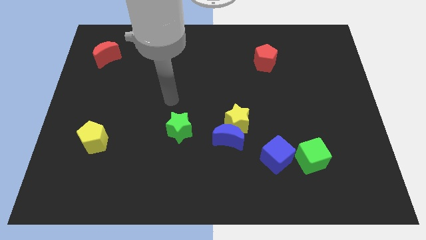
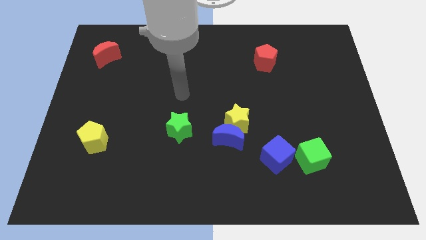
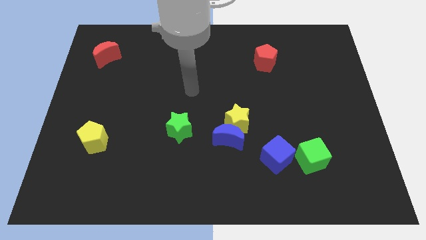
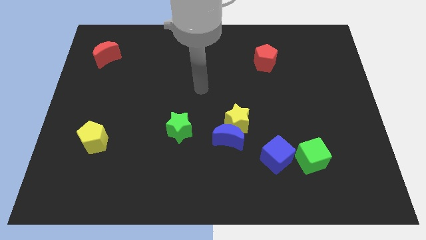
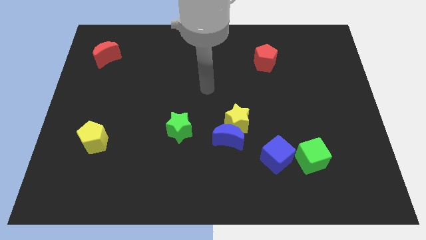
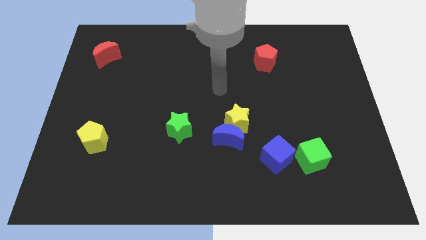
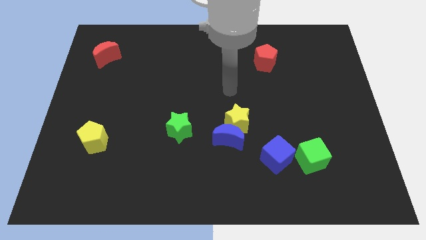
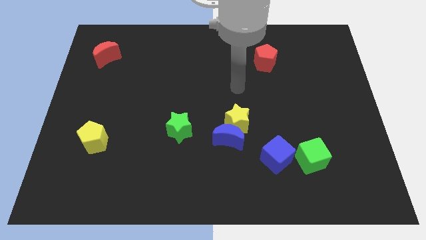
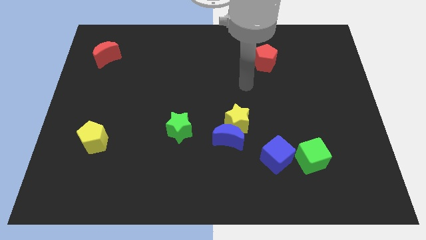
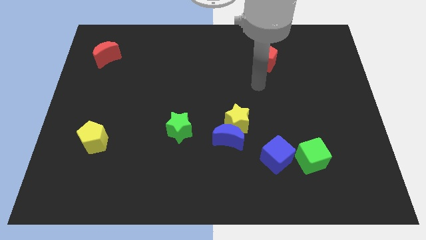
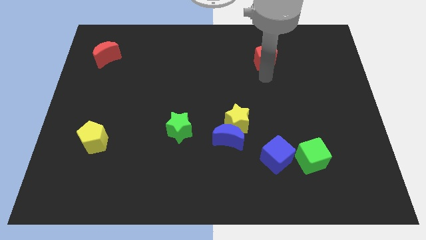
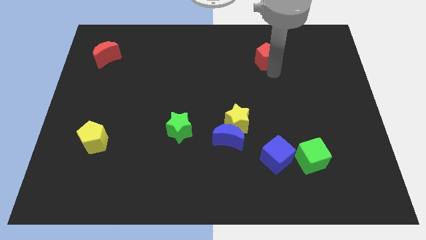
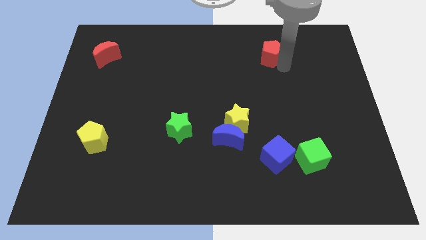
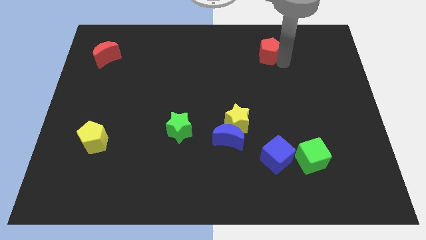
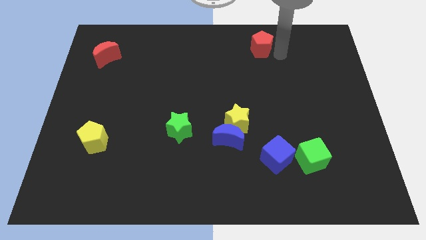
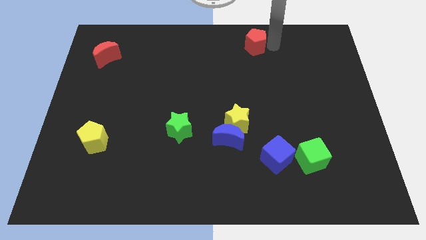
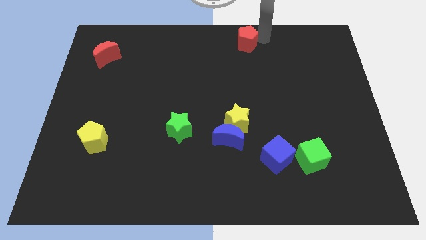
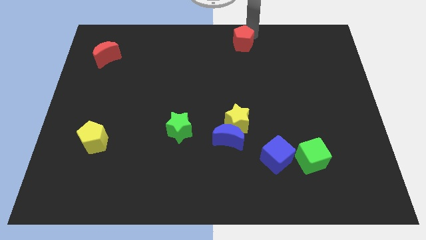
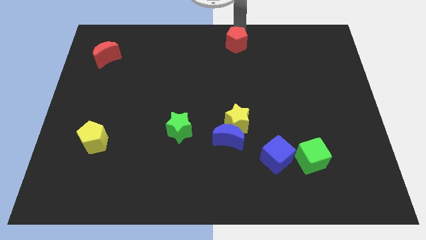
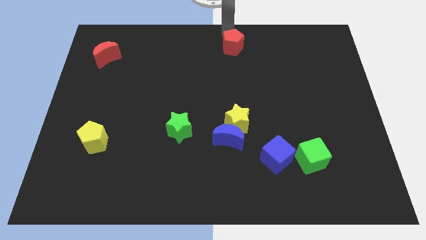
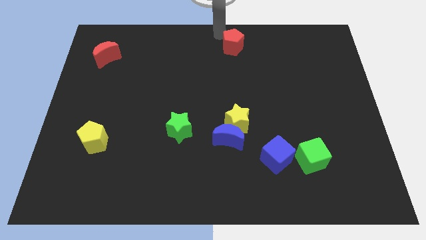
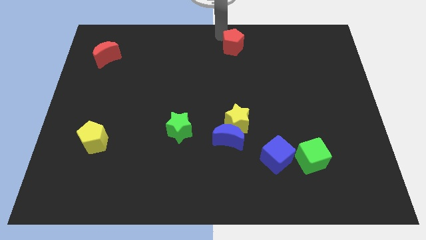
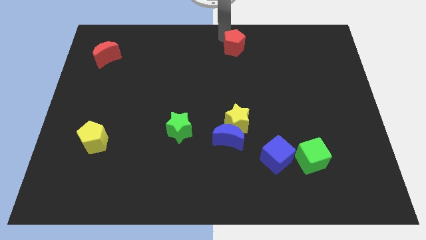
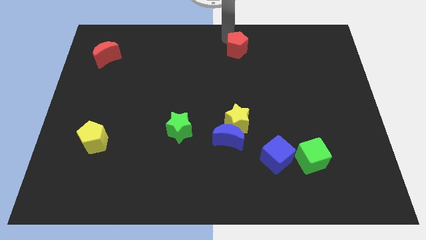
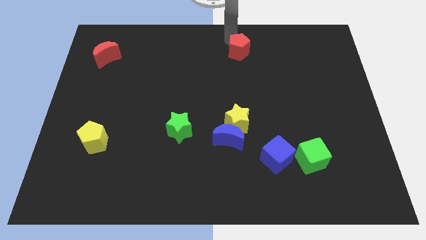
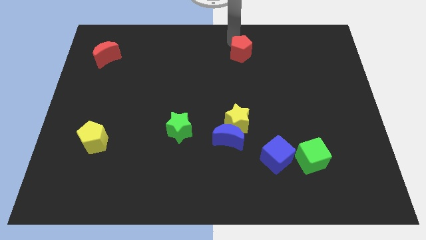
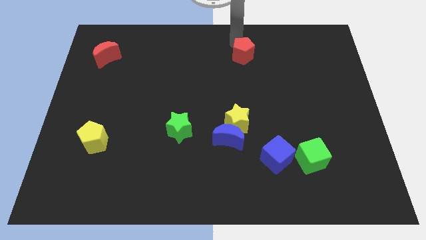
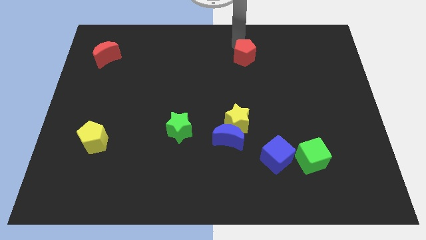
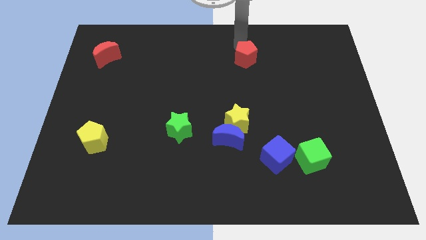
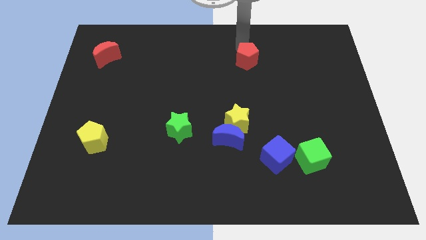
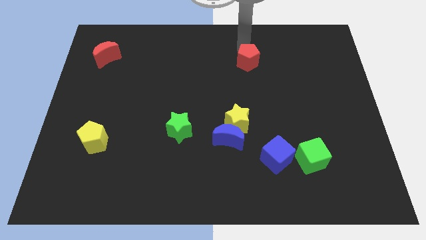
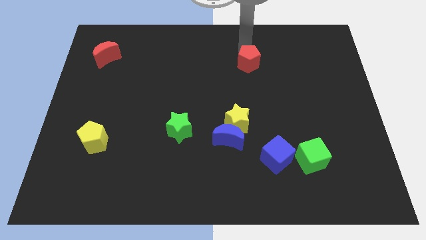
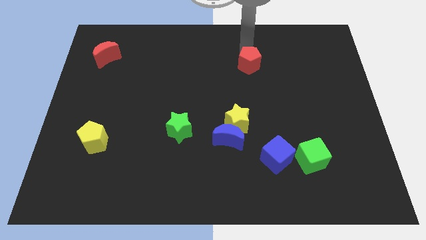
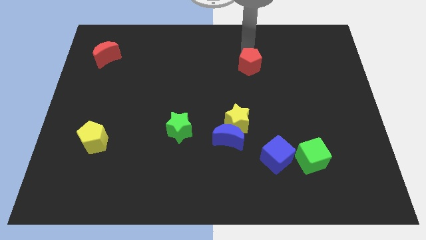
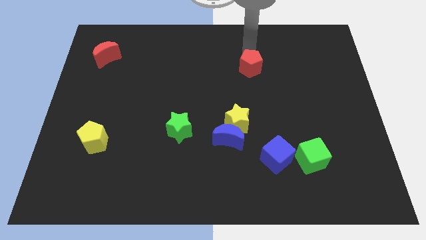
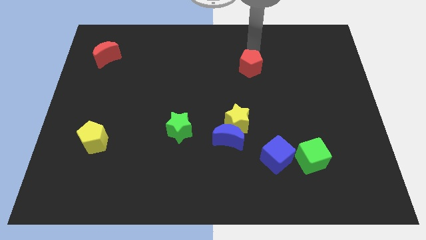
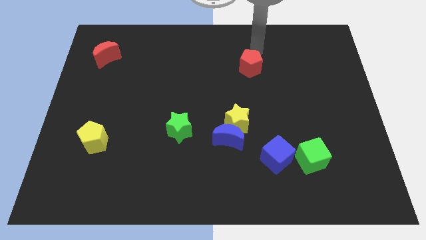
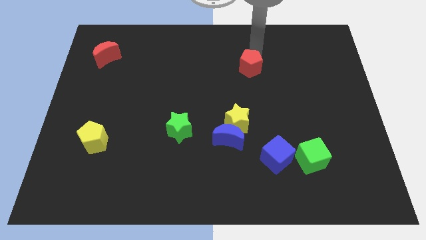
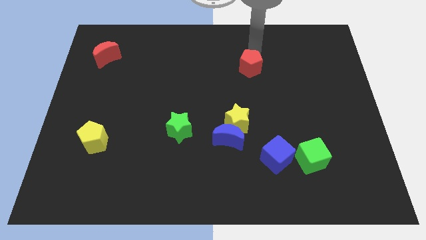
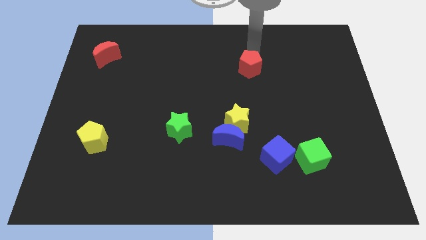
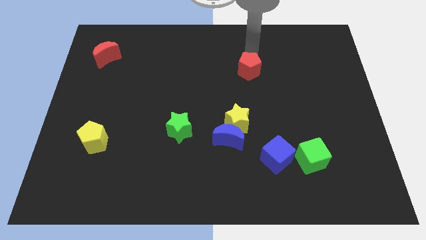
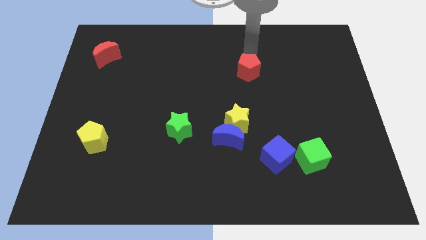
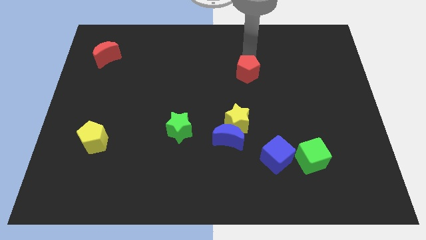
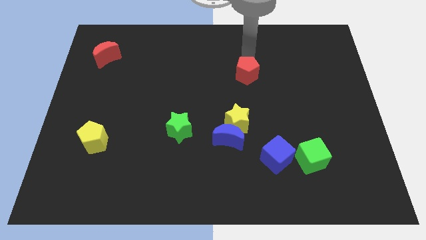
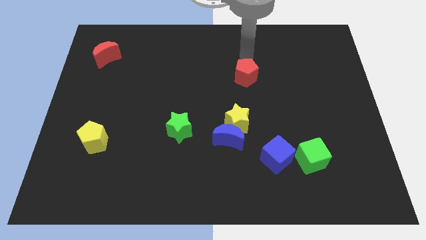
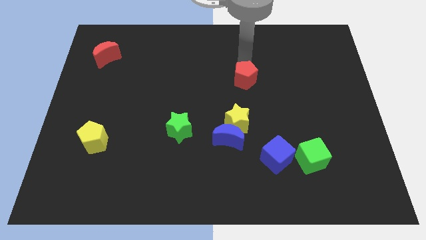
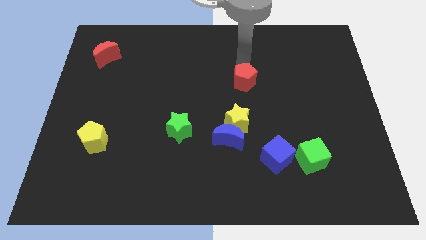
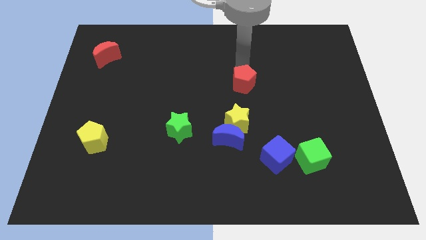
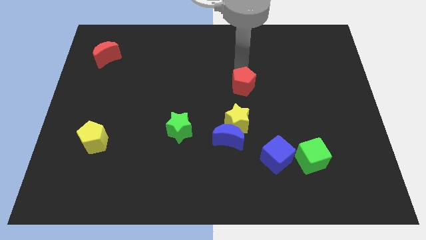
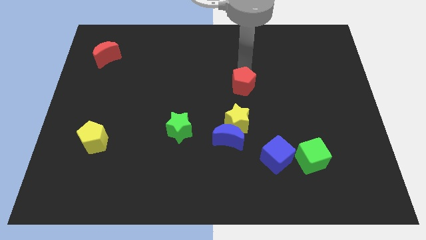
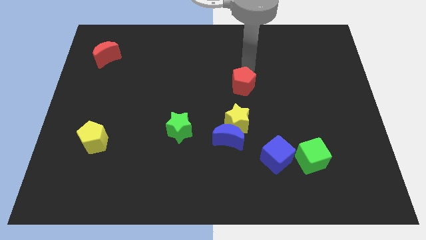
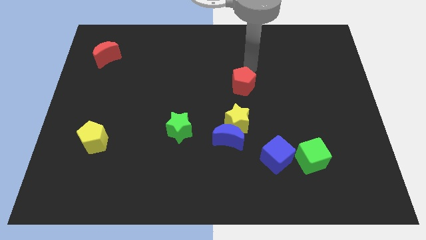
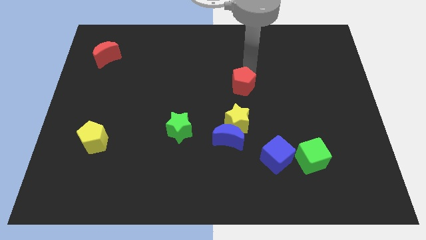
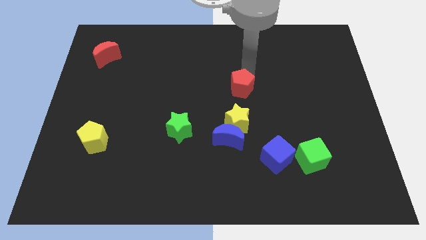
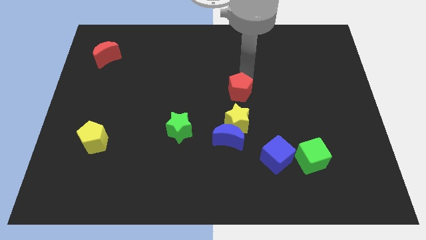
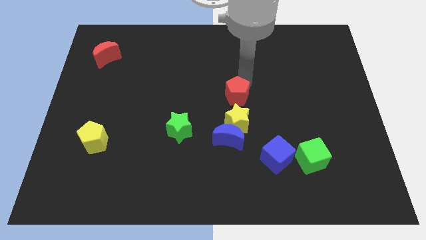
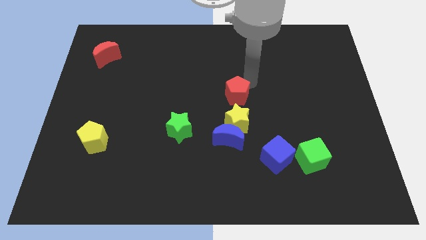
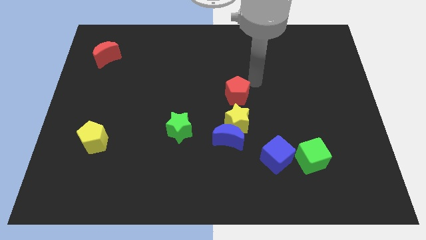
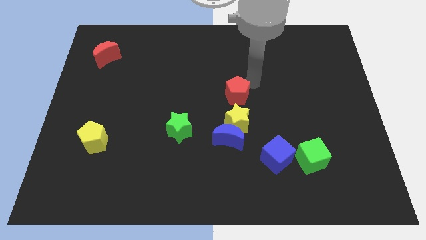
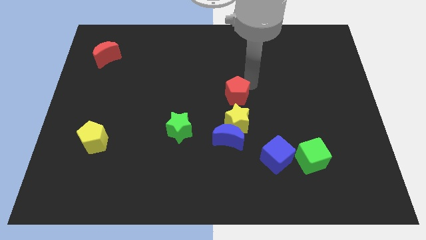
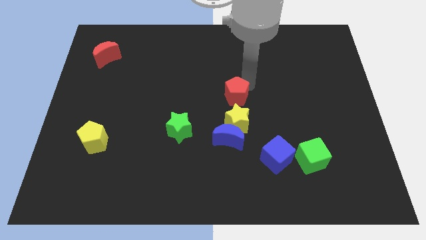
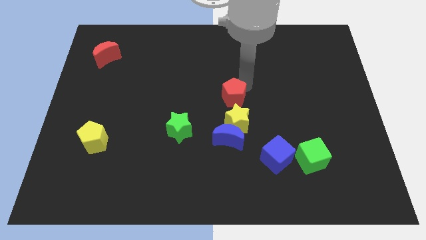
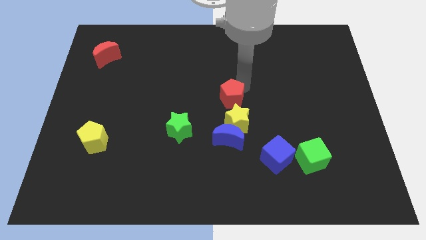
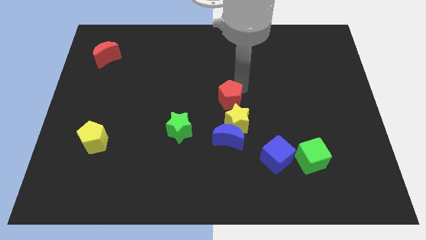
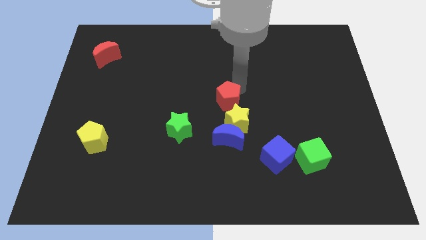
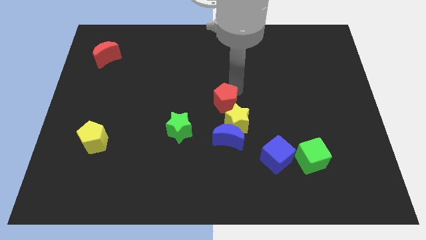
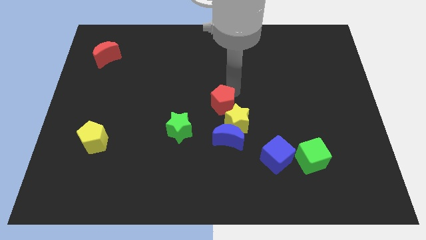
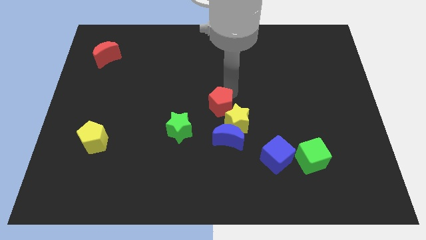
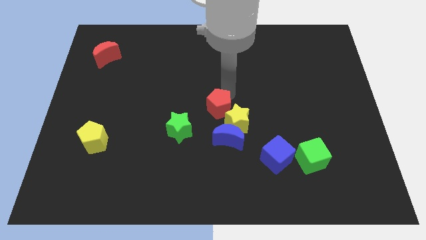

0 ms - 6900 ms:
move the red pentagon to the top left side of the blue moon
